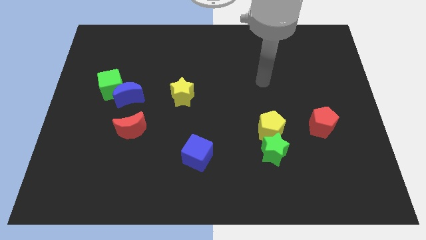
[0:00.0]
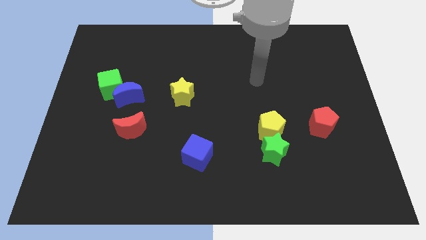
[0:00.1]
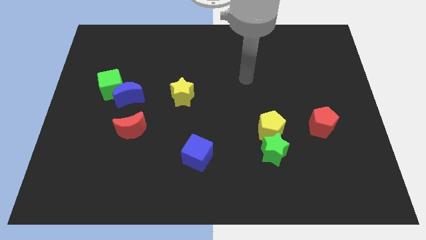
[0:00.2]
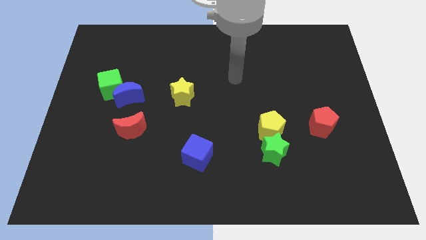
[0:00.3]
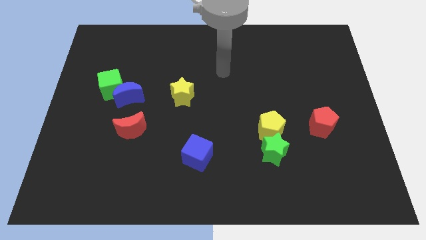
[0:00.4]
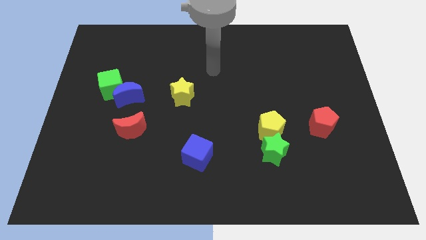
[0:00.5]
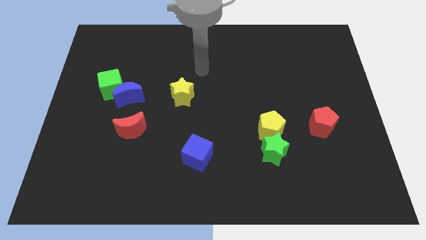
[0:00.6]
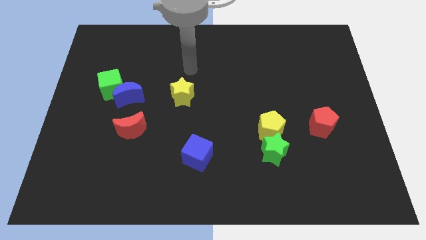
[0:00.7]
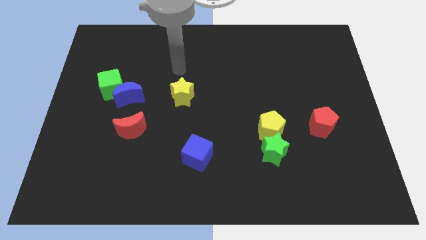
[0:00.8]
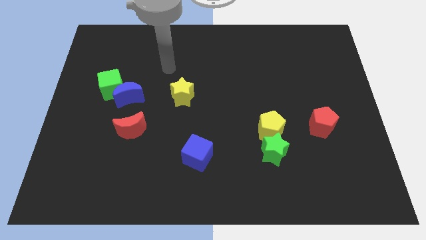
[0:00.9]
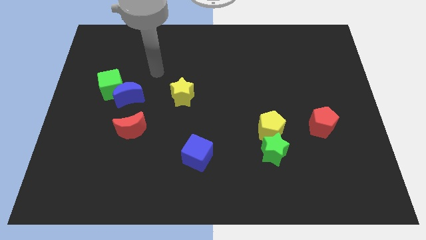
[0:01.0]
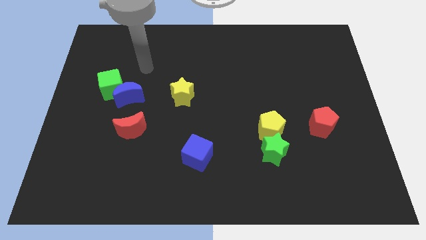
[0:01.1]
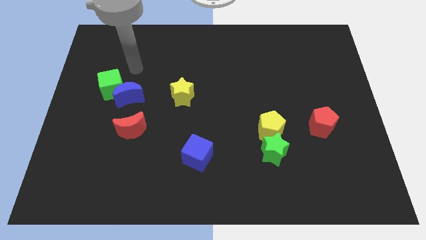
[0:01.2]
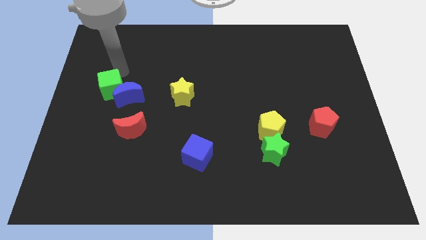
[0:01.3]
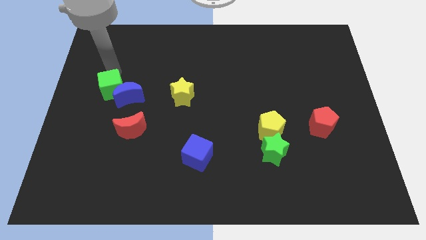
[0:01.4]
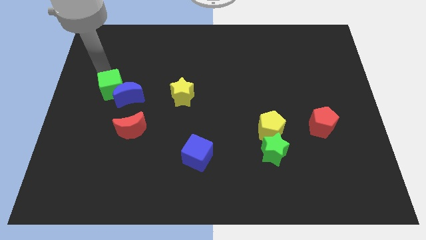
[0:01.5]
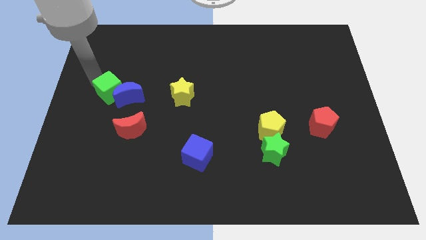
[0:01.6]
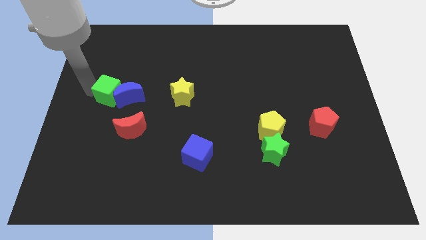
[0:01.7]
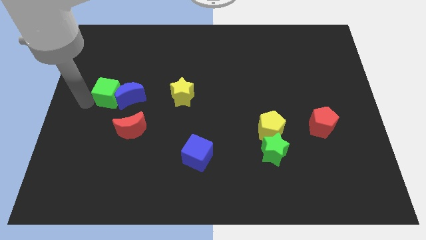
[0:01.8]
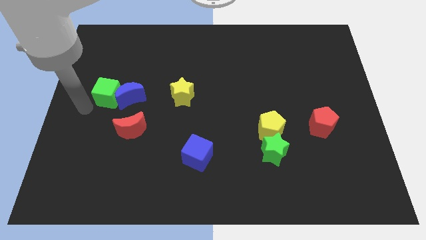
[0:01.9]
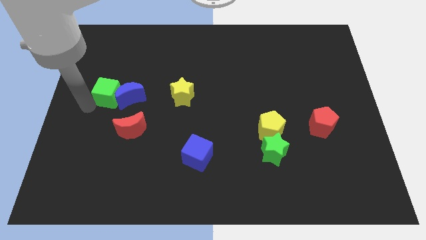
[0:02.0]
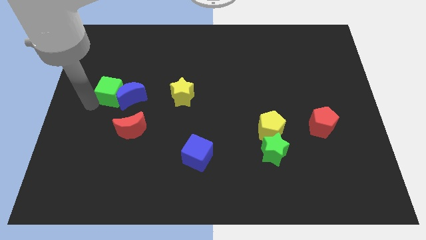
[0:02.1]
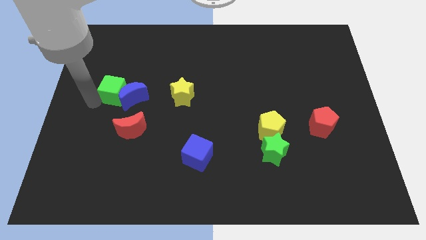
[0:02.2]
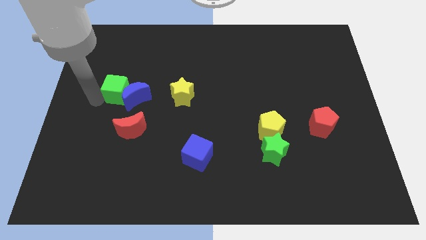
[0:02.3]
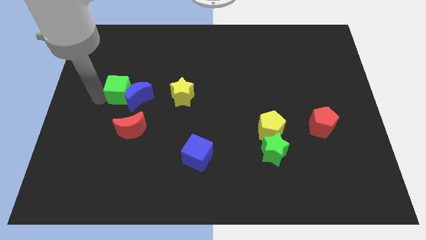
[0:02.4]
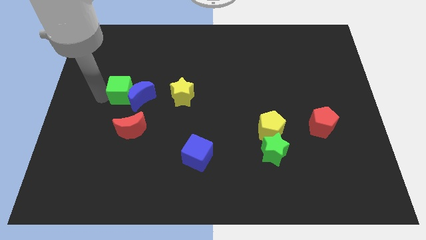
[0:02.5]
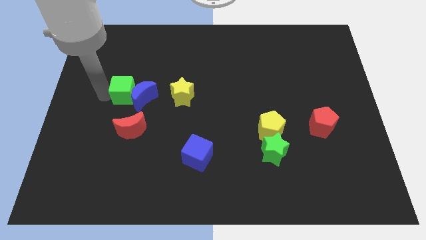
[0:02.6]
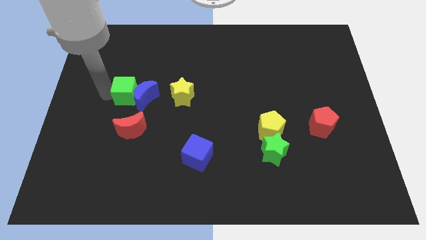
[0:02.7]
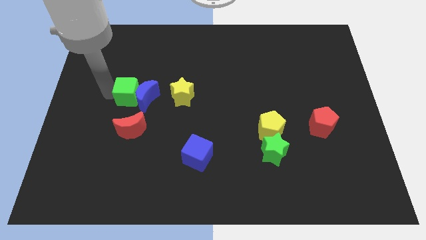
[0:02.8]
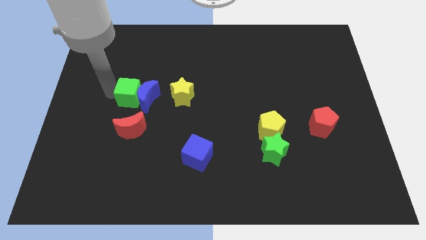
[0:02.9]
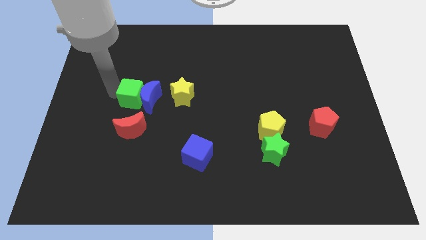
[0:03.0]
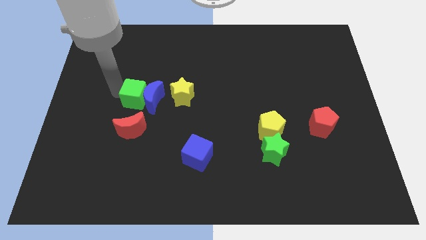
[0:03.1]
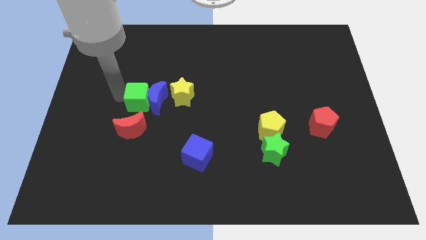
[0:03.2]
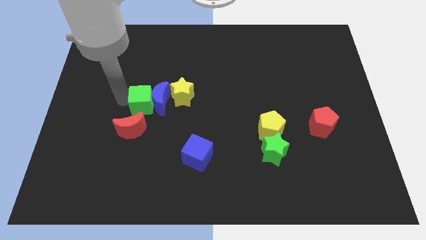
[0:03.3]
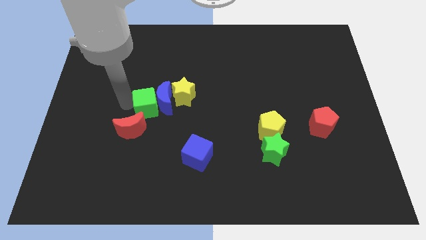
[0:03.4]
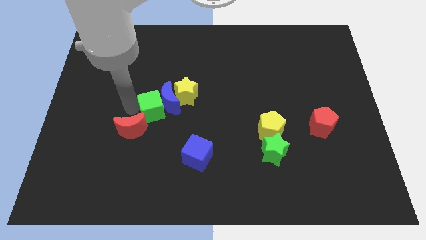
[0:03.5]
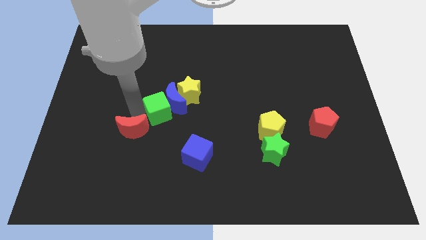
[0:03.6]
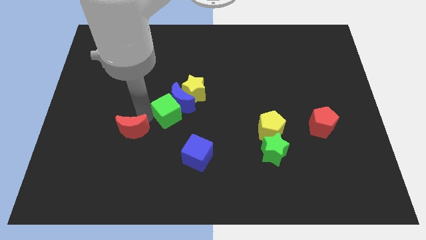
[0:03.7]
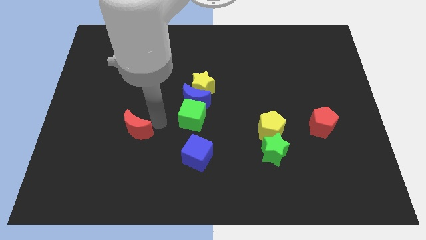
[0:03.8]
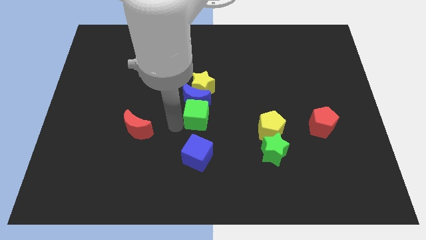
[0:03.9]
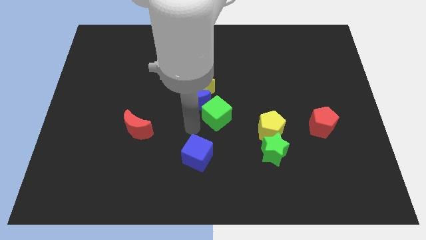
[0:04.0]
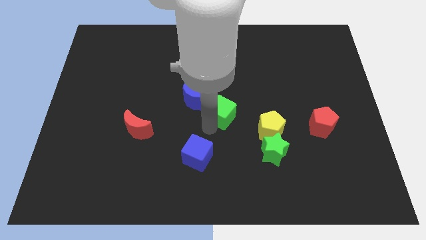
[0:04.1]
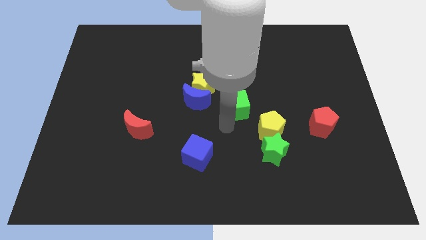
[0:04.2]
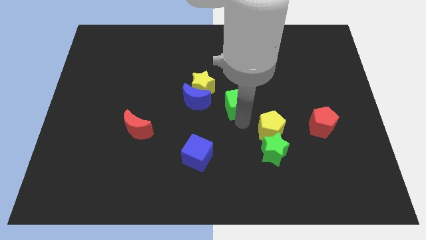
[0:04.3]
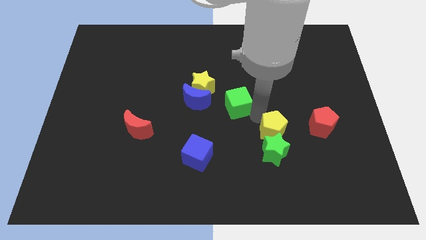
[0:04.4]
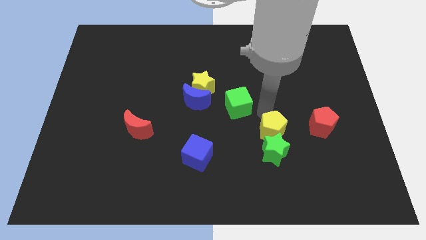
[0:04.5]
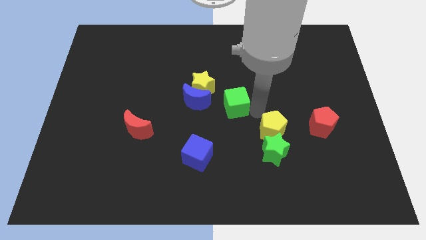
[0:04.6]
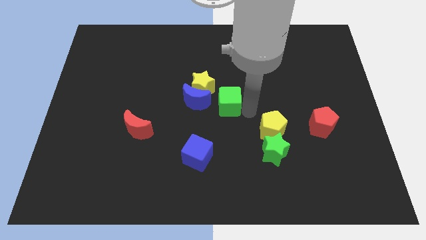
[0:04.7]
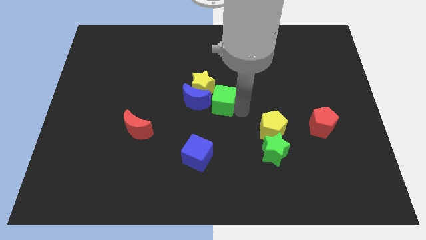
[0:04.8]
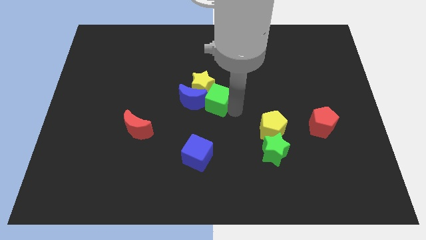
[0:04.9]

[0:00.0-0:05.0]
move the green cube towards the yellow star

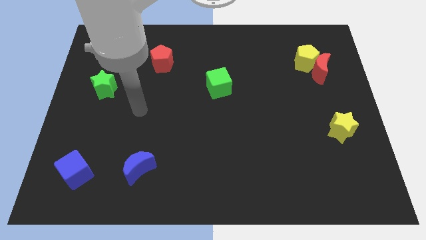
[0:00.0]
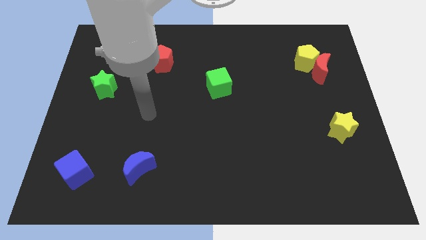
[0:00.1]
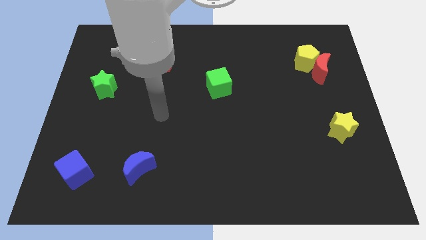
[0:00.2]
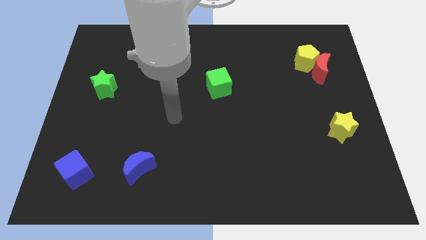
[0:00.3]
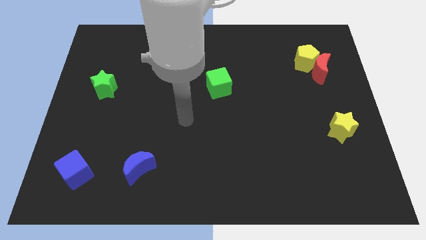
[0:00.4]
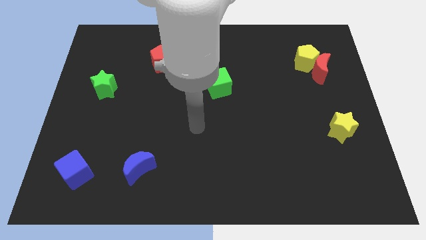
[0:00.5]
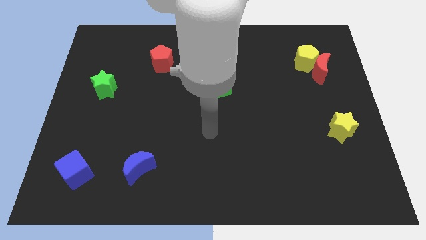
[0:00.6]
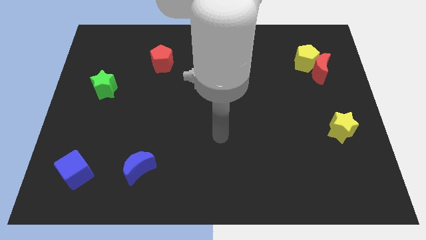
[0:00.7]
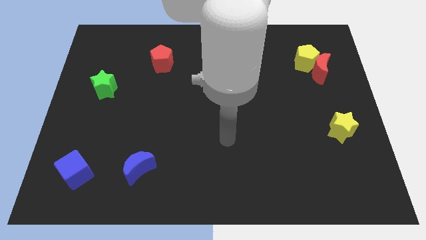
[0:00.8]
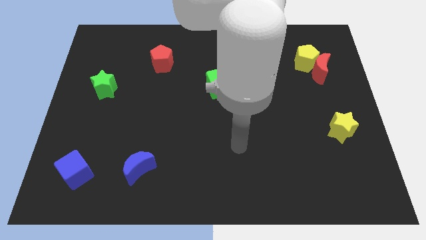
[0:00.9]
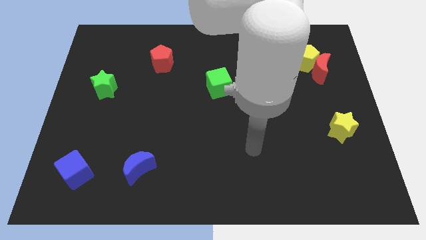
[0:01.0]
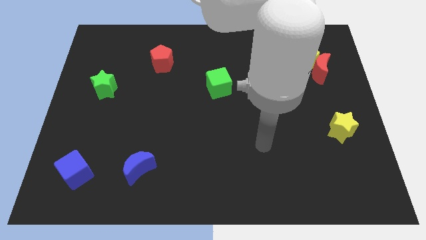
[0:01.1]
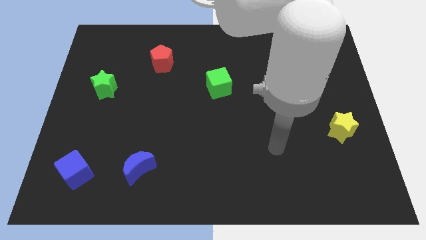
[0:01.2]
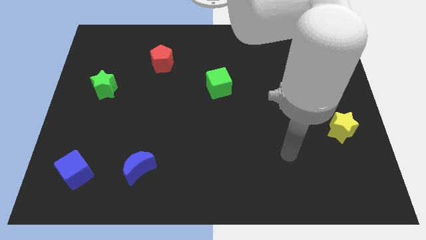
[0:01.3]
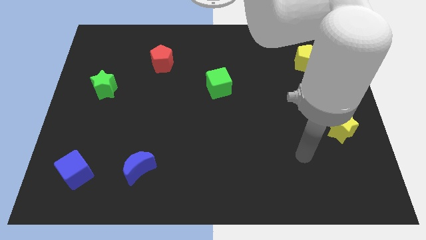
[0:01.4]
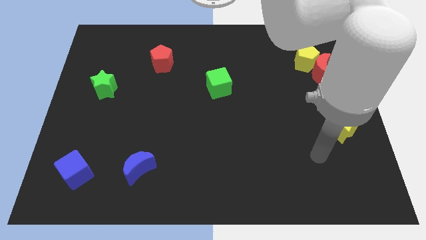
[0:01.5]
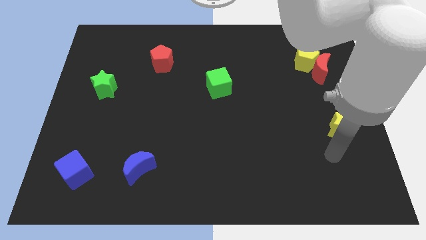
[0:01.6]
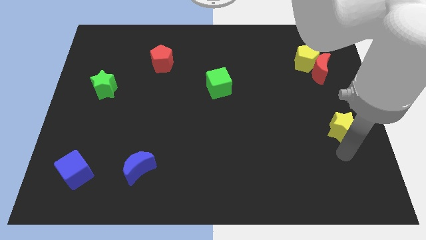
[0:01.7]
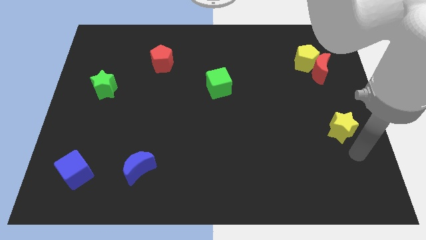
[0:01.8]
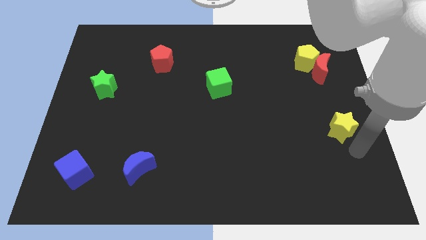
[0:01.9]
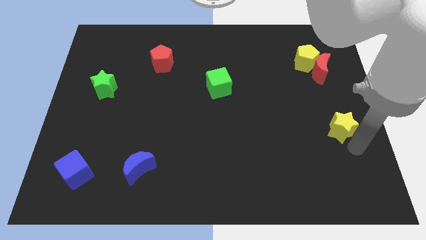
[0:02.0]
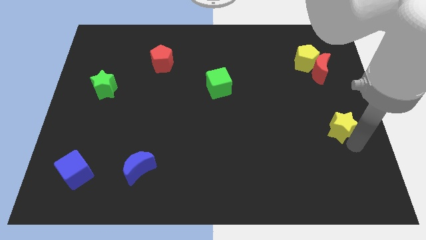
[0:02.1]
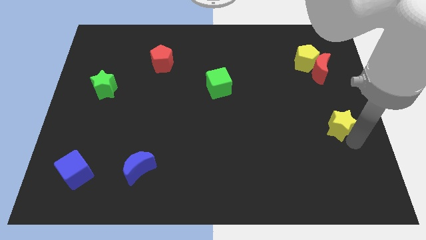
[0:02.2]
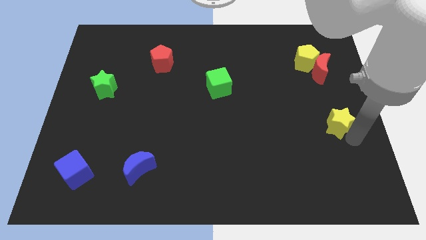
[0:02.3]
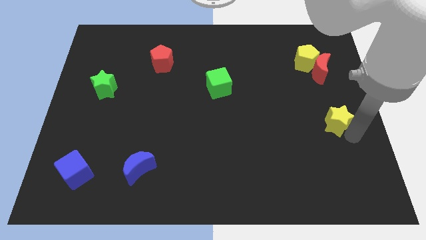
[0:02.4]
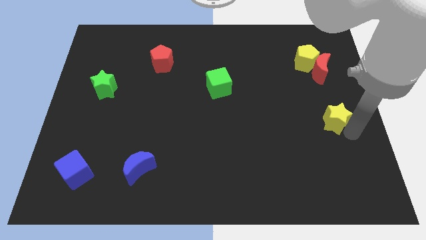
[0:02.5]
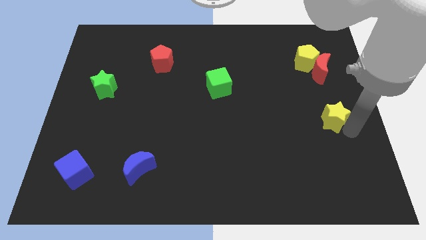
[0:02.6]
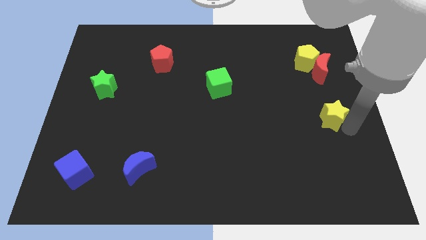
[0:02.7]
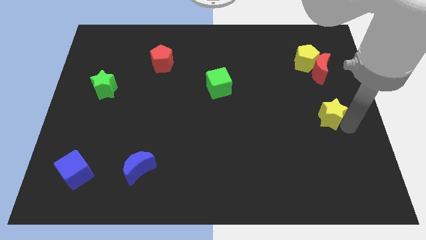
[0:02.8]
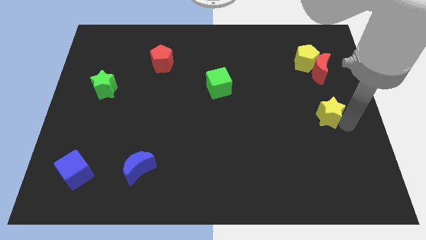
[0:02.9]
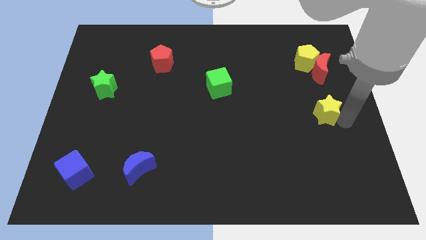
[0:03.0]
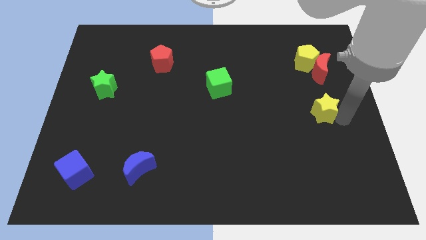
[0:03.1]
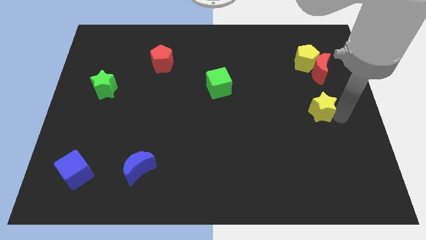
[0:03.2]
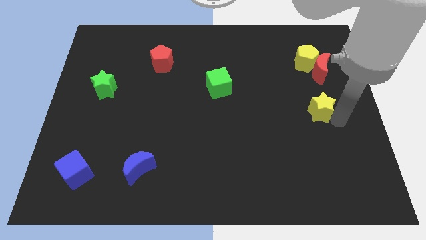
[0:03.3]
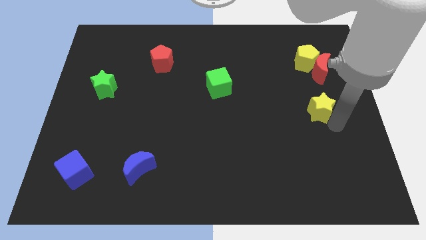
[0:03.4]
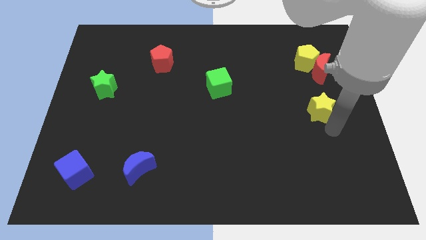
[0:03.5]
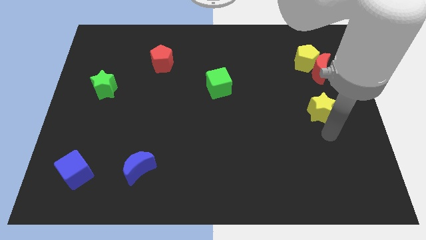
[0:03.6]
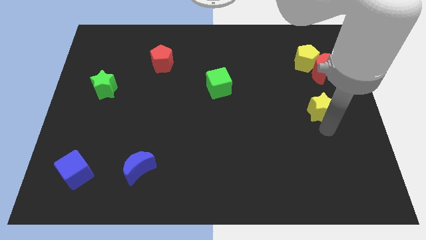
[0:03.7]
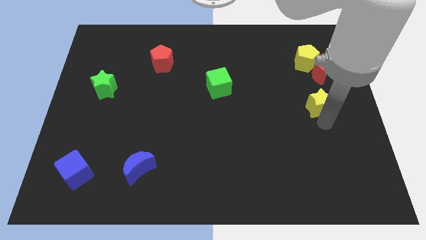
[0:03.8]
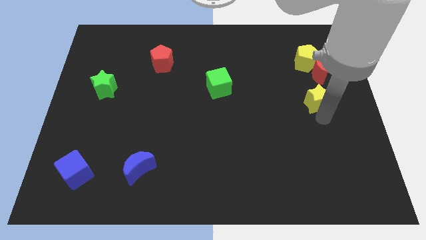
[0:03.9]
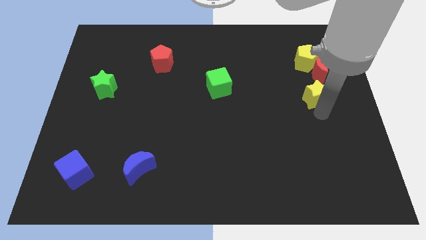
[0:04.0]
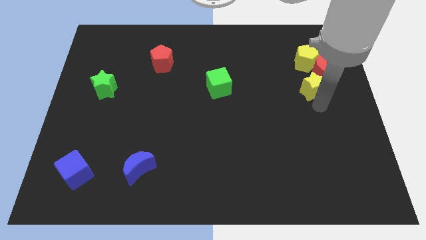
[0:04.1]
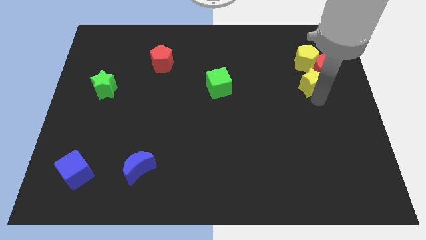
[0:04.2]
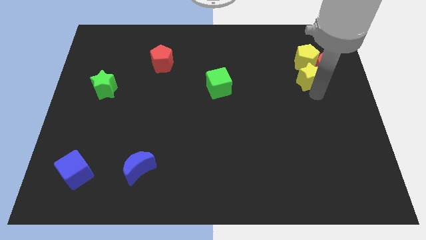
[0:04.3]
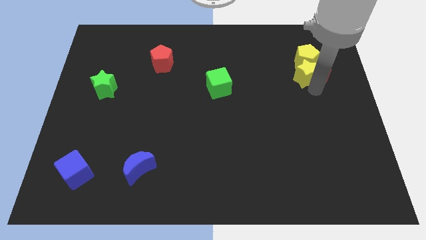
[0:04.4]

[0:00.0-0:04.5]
move the yellow star to the yellow pentagon
